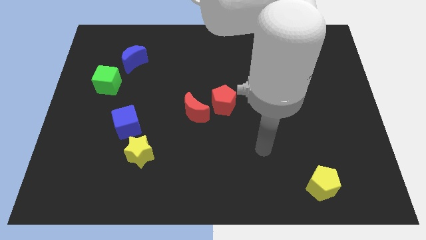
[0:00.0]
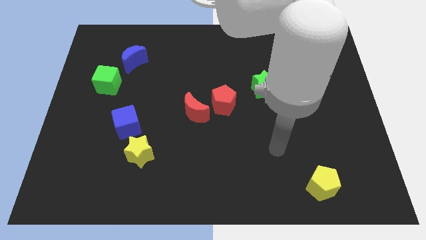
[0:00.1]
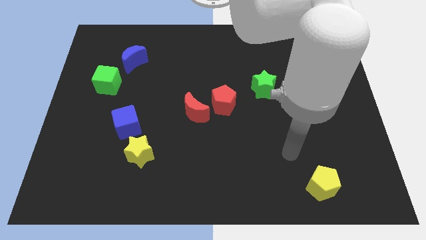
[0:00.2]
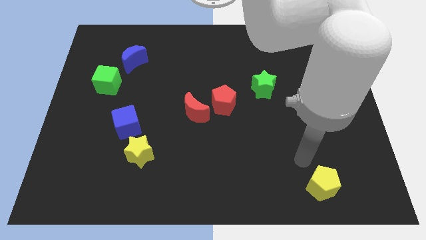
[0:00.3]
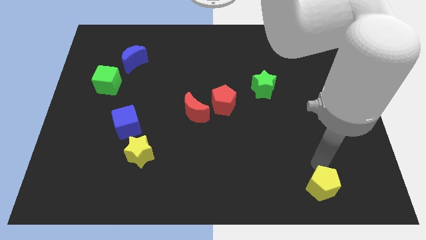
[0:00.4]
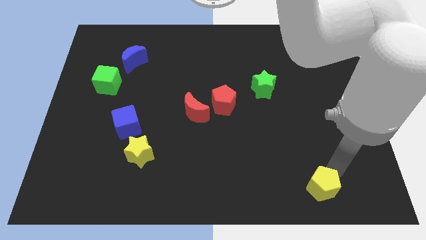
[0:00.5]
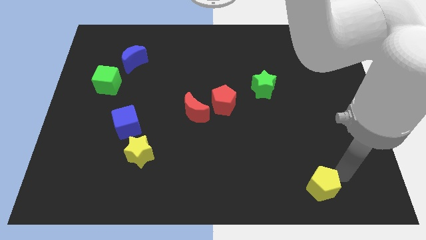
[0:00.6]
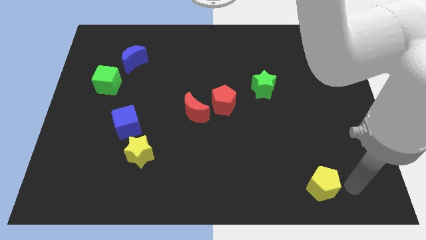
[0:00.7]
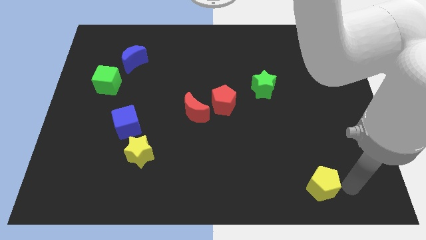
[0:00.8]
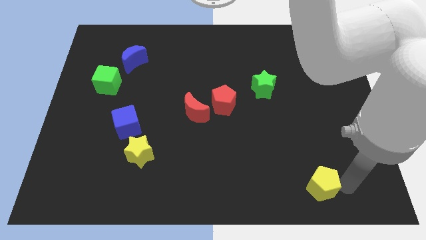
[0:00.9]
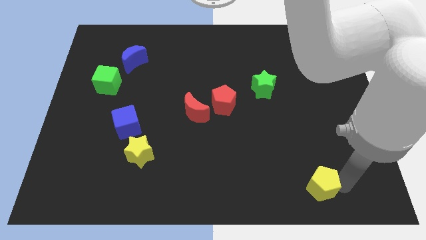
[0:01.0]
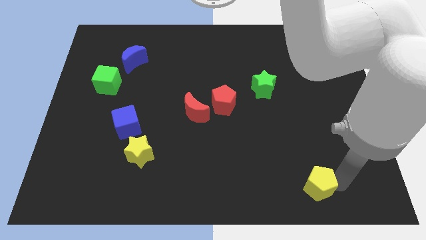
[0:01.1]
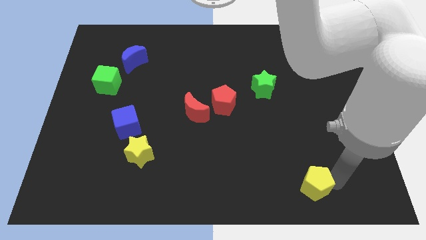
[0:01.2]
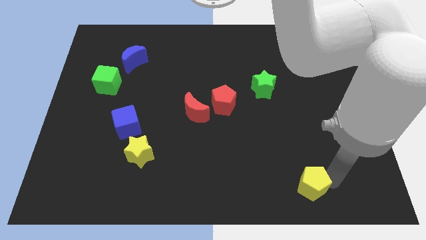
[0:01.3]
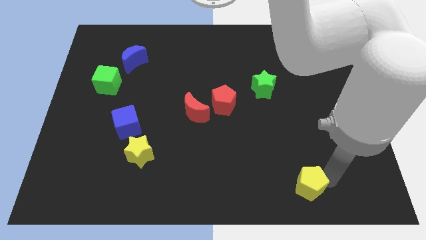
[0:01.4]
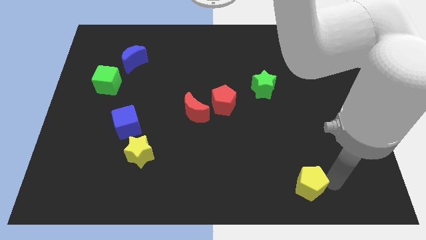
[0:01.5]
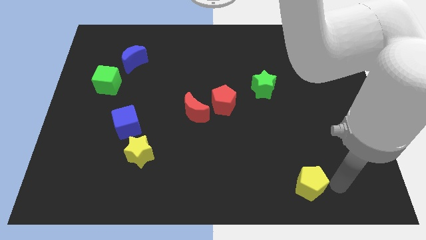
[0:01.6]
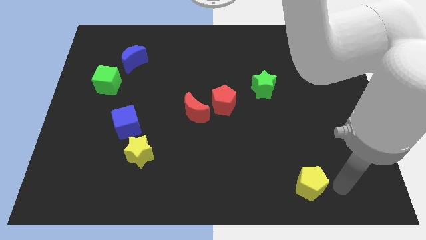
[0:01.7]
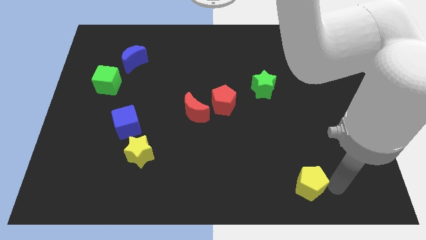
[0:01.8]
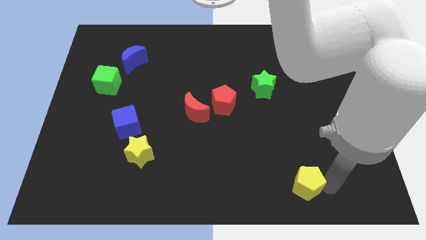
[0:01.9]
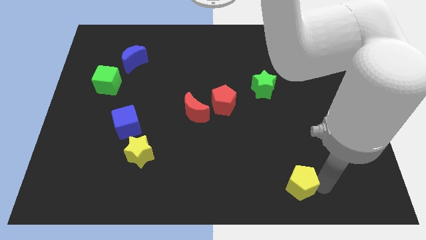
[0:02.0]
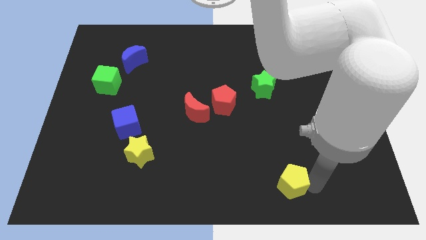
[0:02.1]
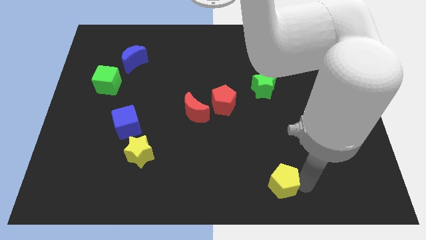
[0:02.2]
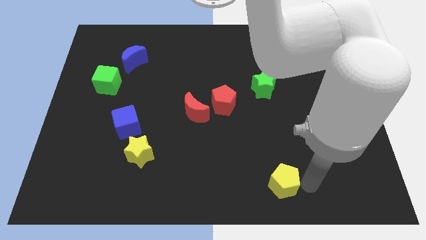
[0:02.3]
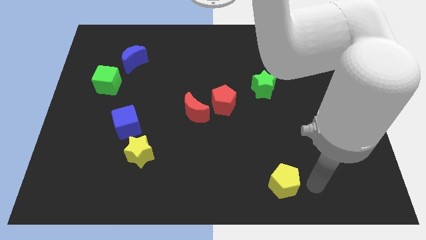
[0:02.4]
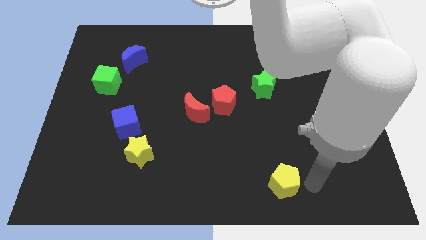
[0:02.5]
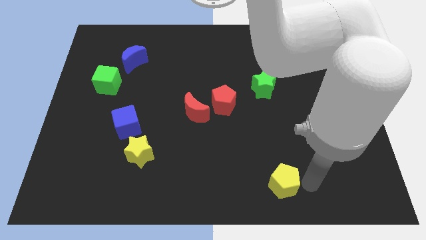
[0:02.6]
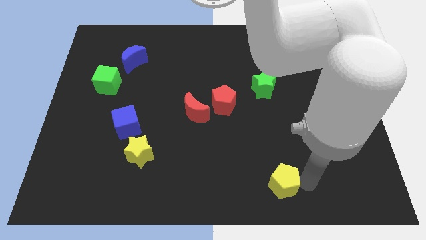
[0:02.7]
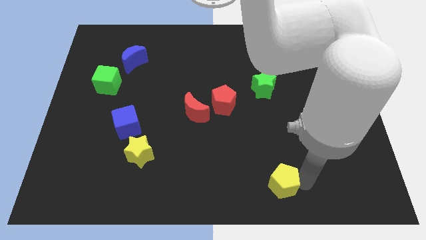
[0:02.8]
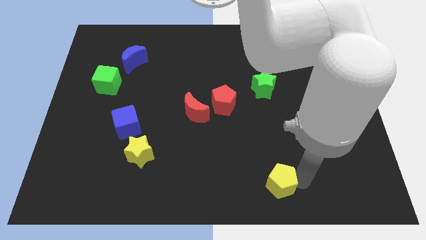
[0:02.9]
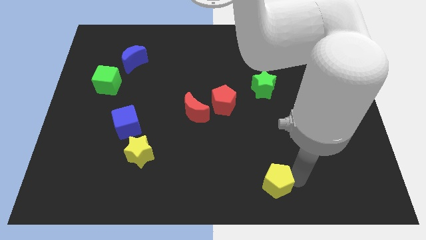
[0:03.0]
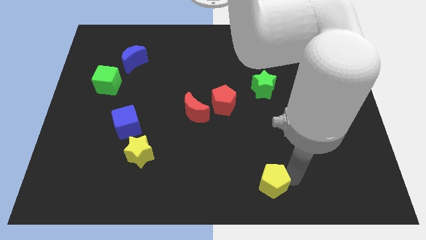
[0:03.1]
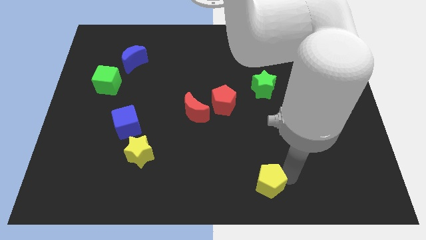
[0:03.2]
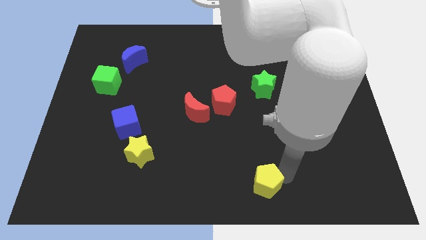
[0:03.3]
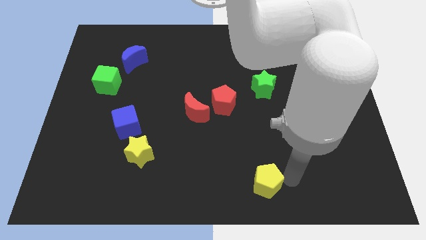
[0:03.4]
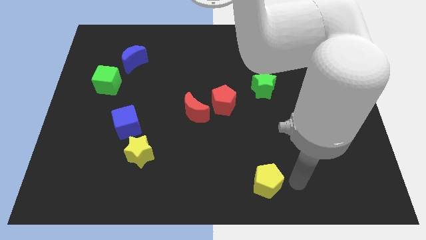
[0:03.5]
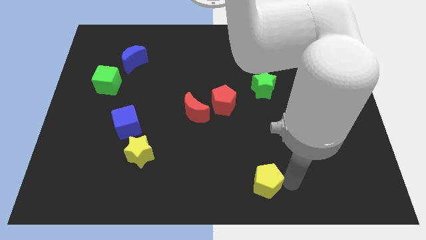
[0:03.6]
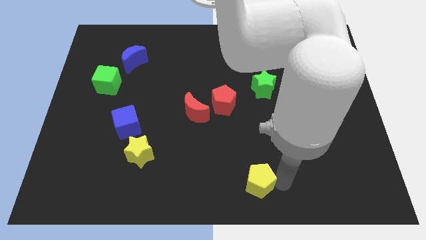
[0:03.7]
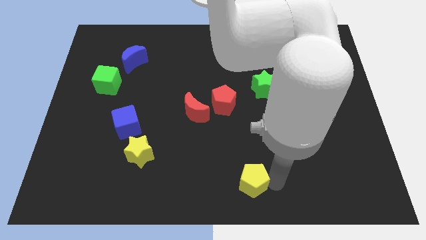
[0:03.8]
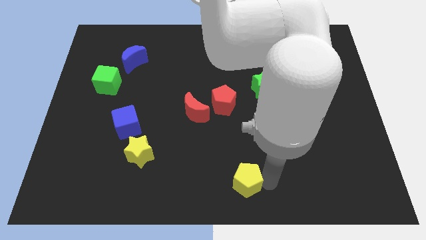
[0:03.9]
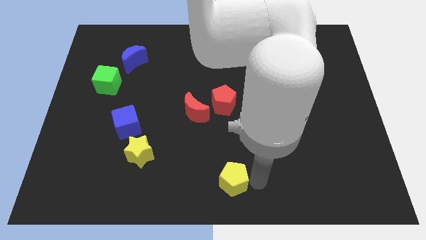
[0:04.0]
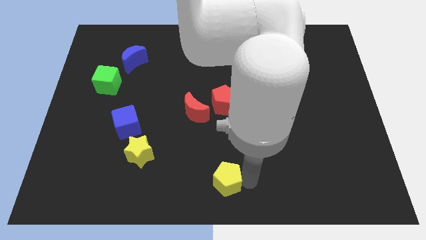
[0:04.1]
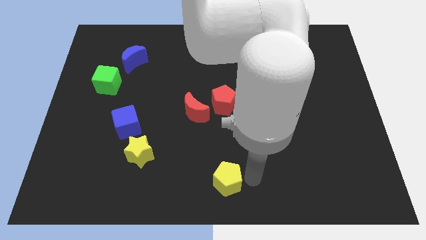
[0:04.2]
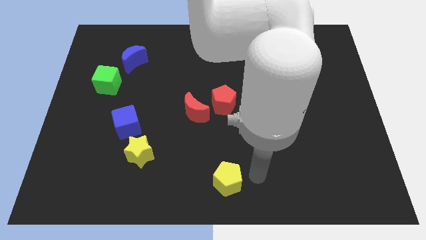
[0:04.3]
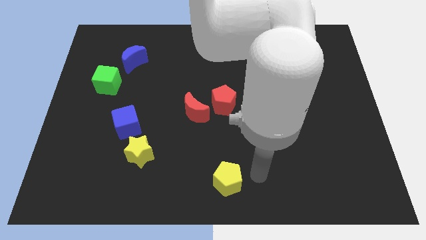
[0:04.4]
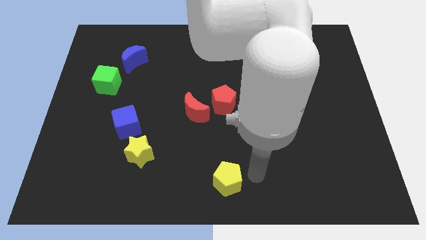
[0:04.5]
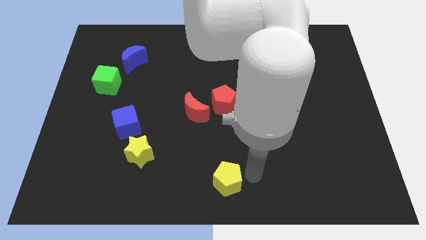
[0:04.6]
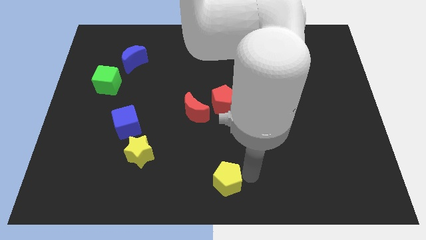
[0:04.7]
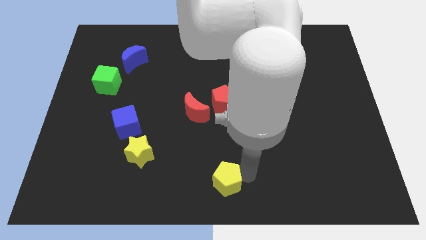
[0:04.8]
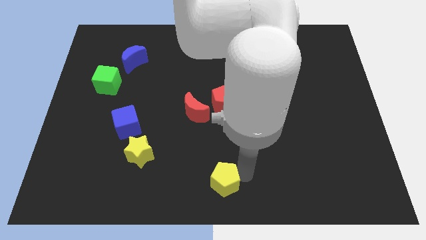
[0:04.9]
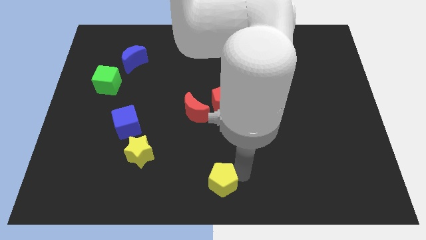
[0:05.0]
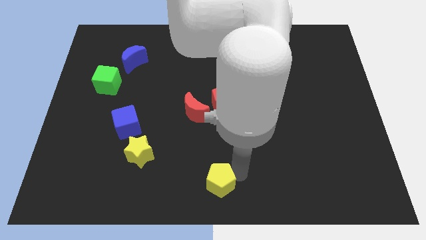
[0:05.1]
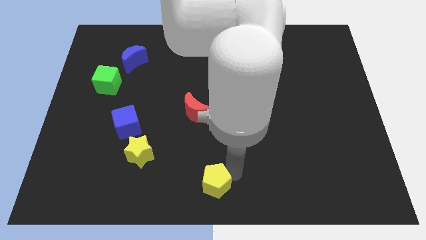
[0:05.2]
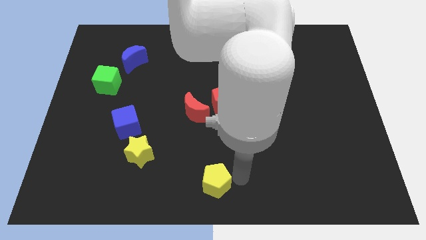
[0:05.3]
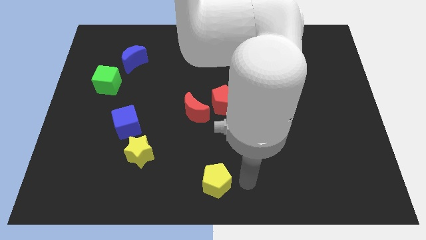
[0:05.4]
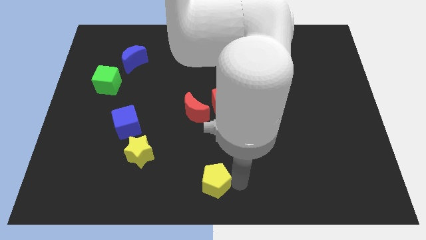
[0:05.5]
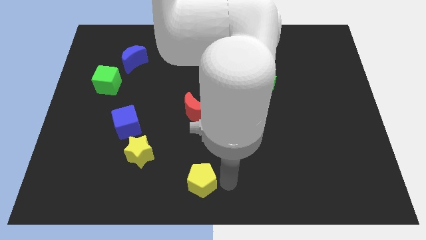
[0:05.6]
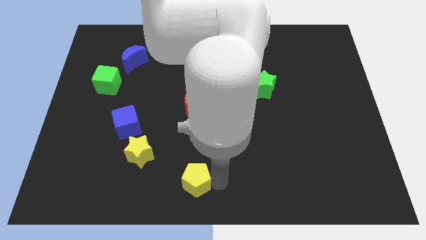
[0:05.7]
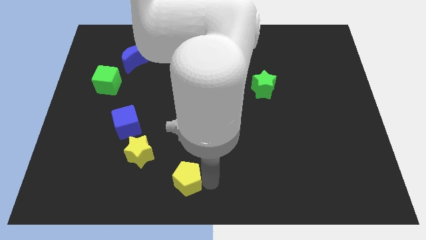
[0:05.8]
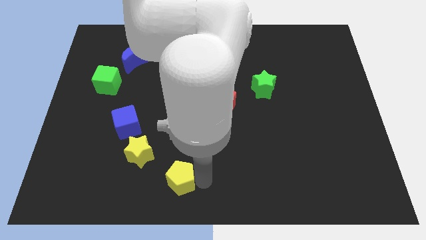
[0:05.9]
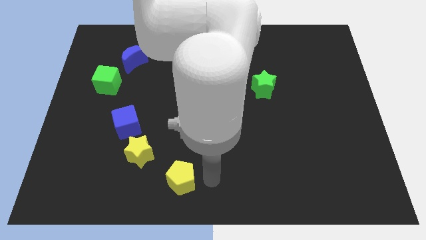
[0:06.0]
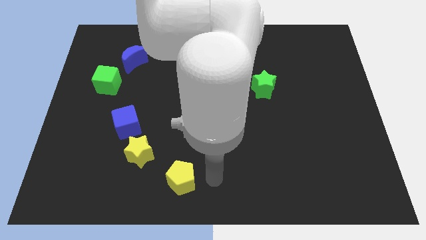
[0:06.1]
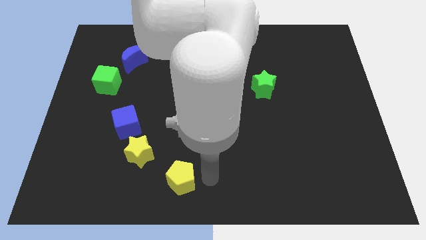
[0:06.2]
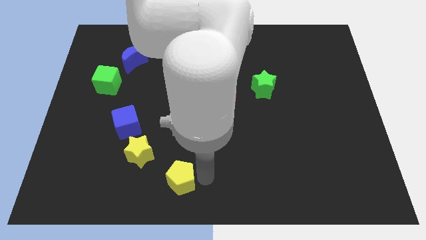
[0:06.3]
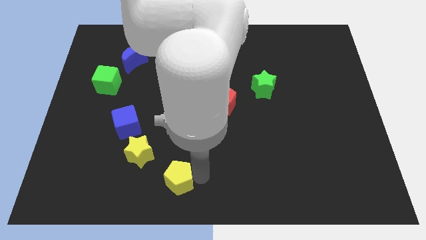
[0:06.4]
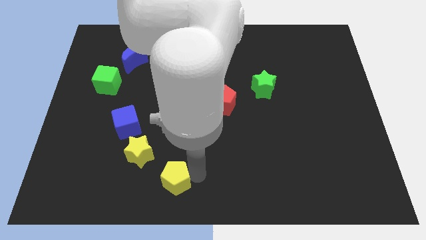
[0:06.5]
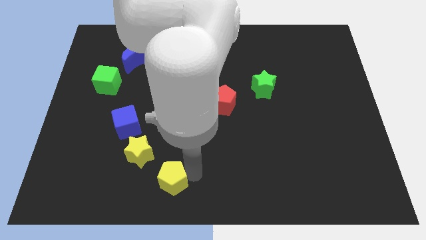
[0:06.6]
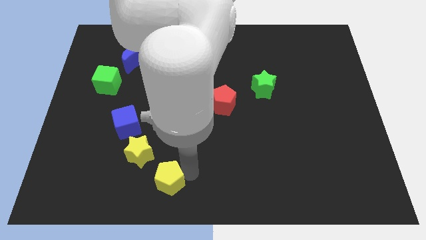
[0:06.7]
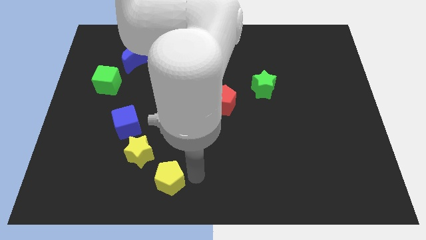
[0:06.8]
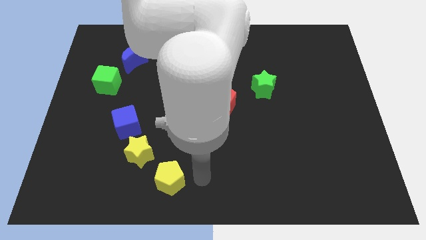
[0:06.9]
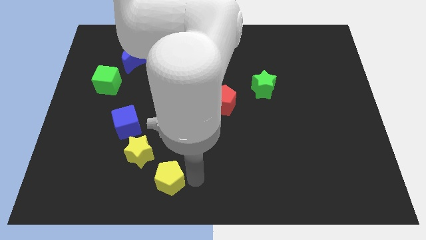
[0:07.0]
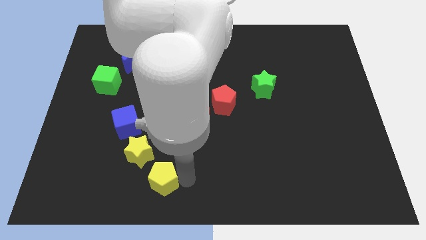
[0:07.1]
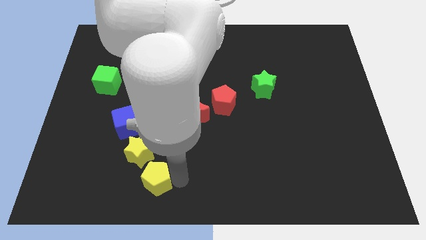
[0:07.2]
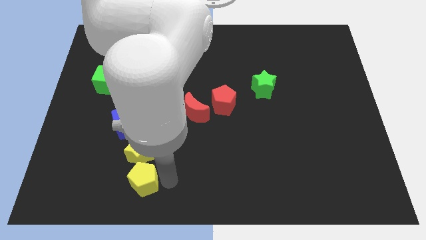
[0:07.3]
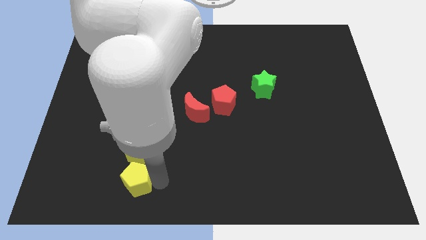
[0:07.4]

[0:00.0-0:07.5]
move the yellow pentagon to the bottom left side of the yellow star
